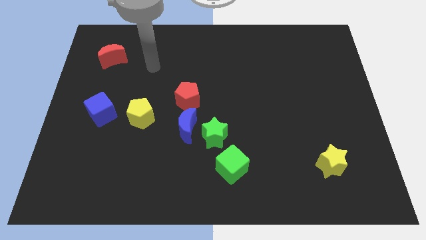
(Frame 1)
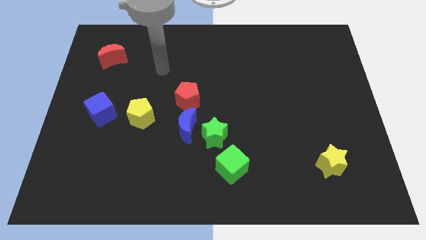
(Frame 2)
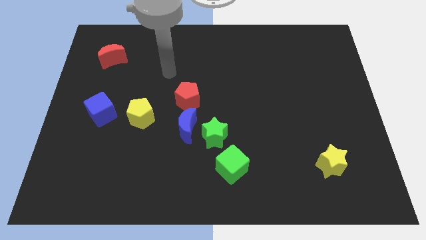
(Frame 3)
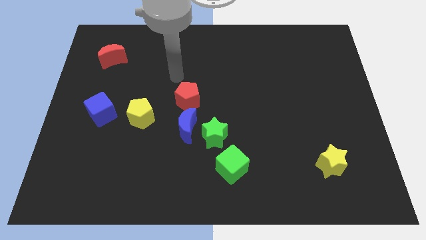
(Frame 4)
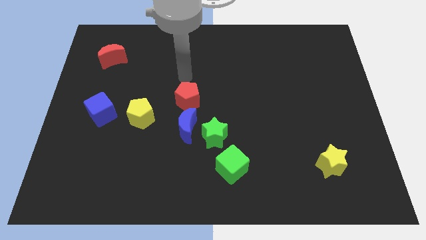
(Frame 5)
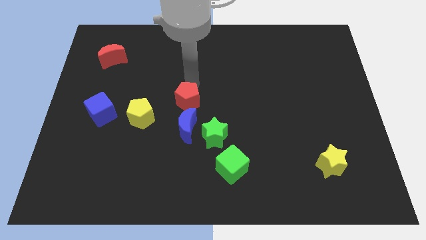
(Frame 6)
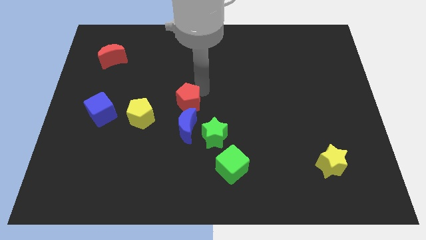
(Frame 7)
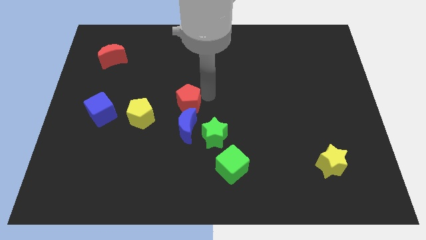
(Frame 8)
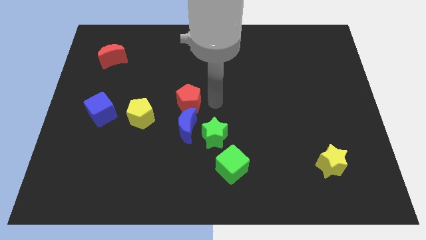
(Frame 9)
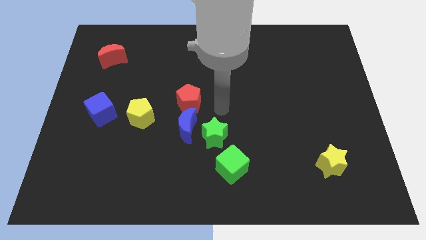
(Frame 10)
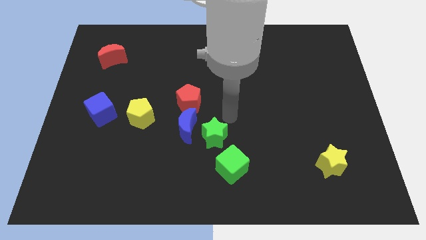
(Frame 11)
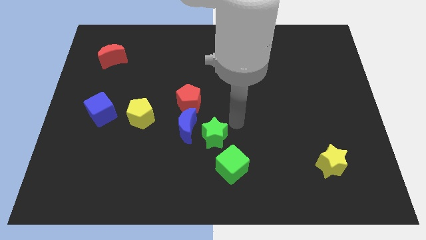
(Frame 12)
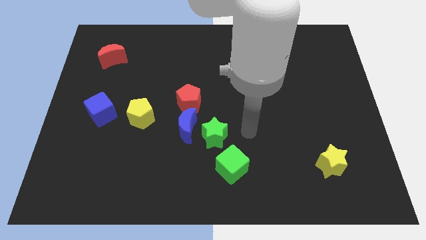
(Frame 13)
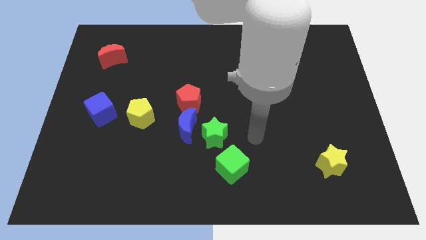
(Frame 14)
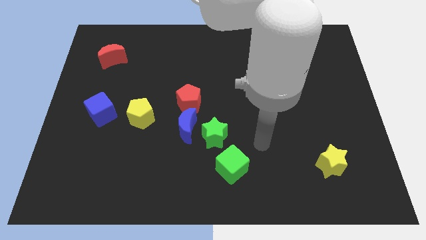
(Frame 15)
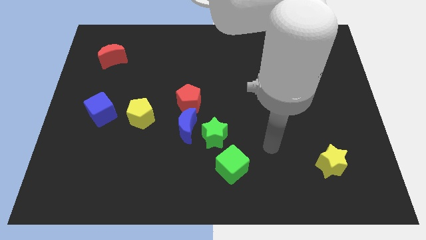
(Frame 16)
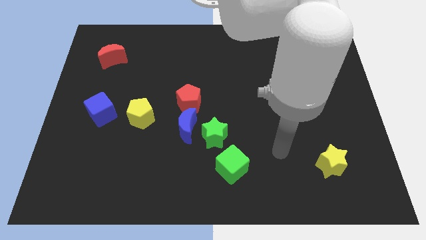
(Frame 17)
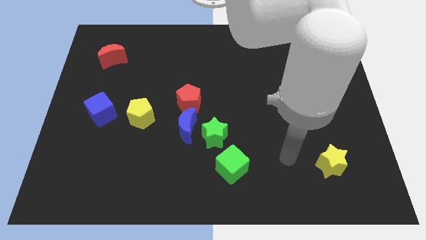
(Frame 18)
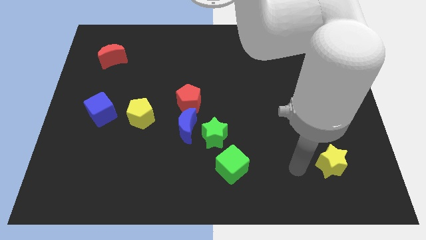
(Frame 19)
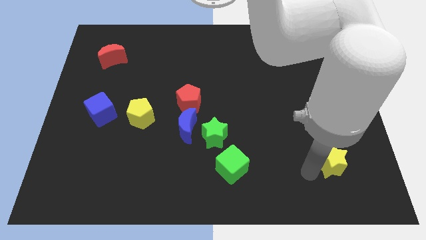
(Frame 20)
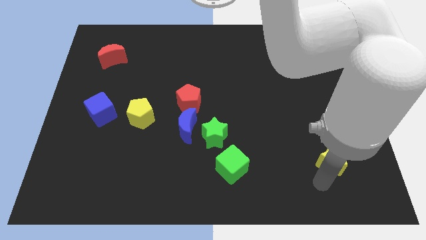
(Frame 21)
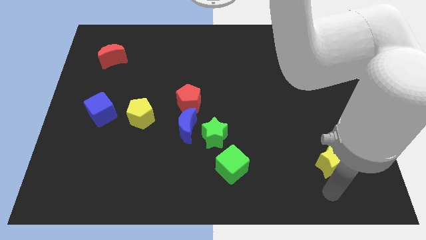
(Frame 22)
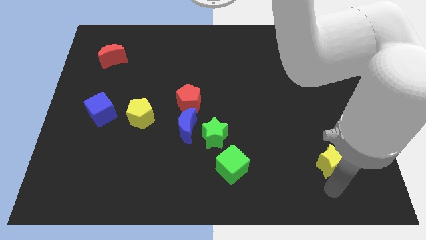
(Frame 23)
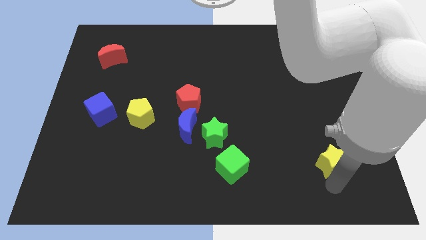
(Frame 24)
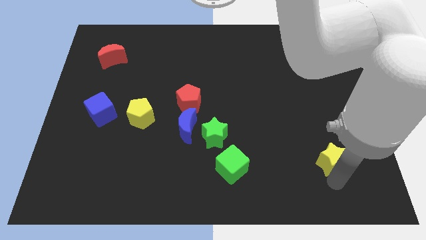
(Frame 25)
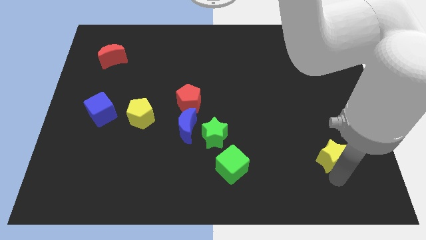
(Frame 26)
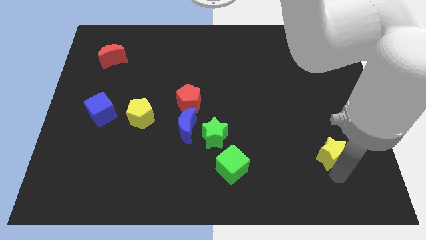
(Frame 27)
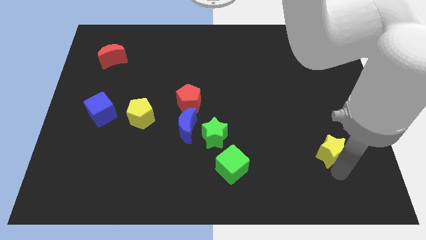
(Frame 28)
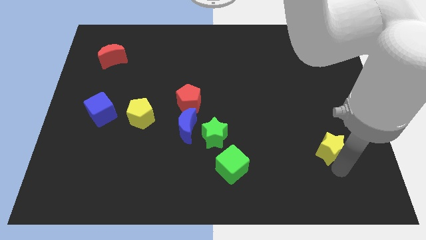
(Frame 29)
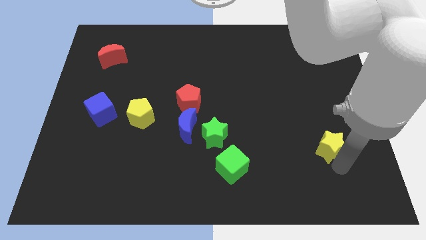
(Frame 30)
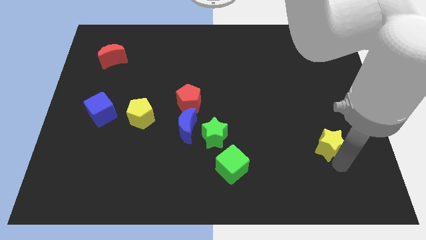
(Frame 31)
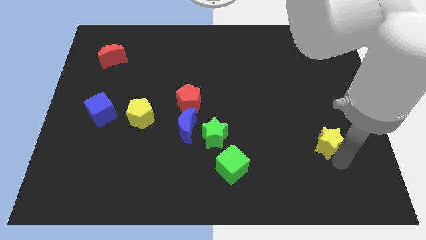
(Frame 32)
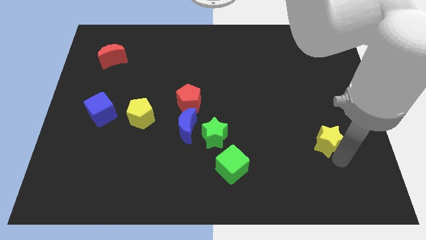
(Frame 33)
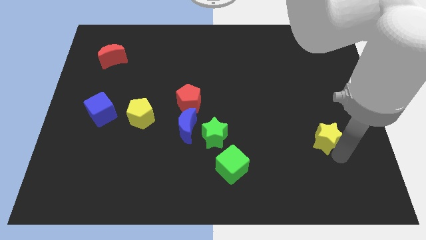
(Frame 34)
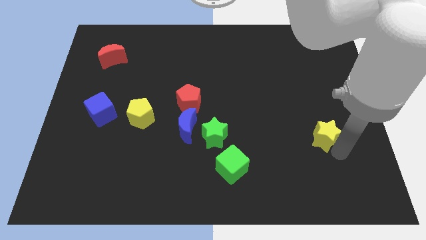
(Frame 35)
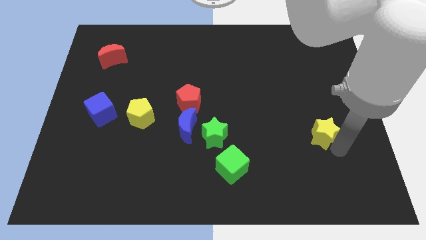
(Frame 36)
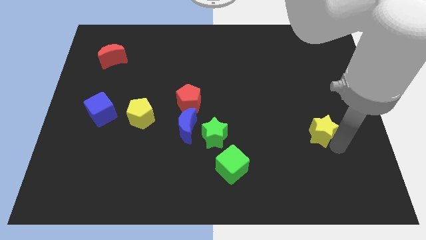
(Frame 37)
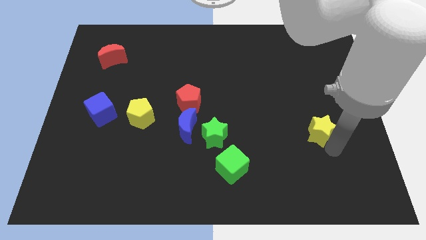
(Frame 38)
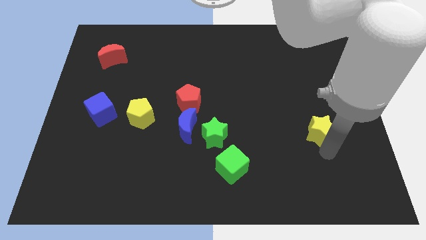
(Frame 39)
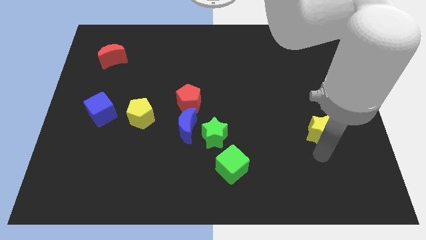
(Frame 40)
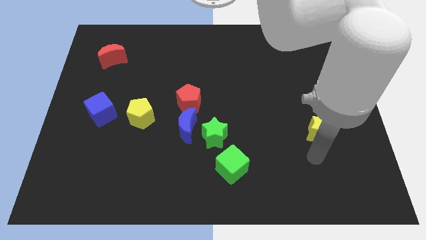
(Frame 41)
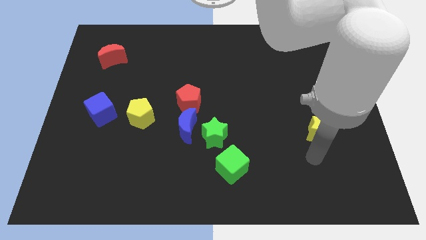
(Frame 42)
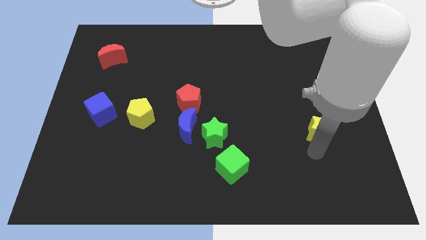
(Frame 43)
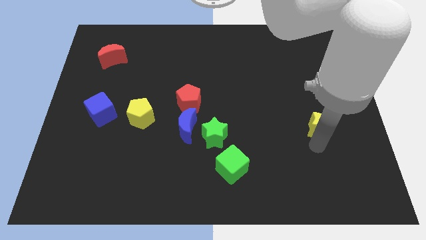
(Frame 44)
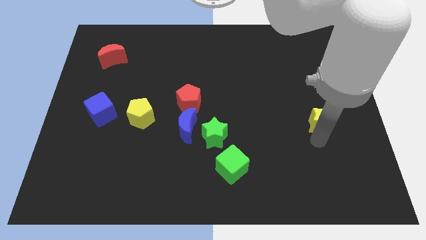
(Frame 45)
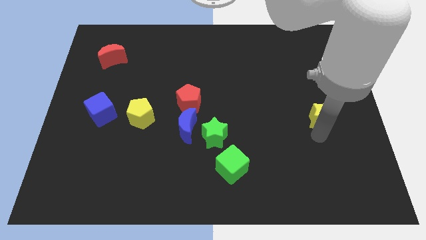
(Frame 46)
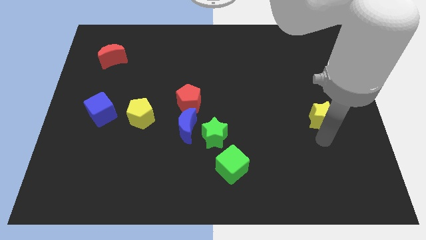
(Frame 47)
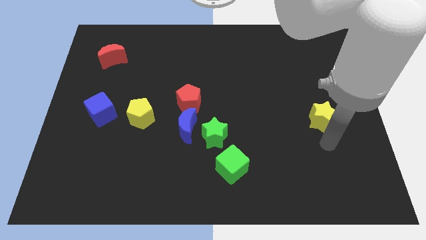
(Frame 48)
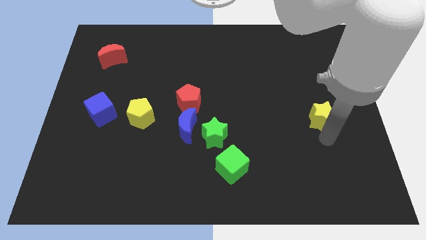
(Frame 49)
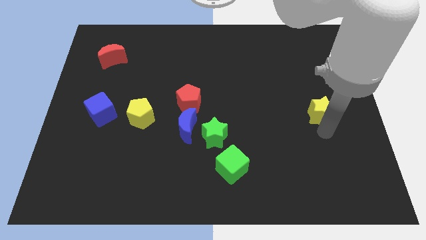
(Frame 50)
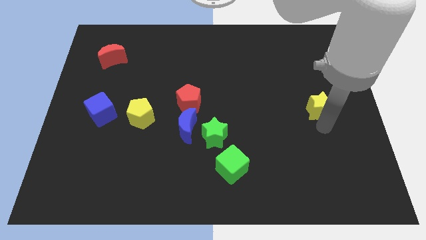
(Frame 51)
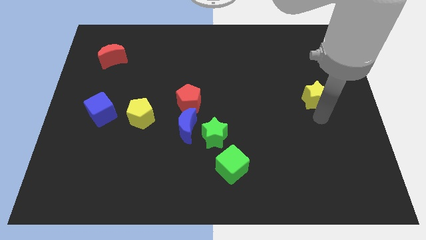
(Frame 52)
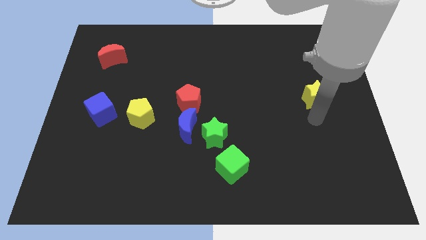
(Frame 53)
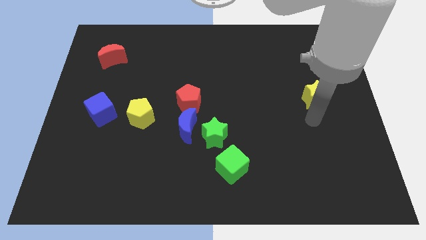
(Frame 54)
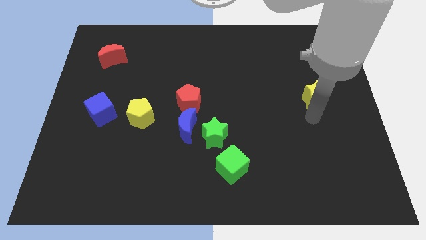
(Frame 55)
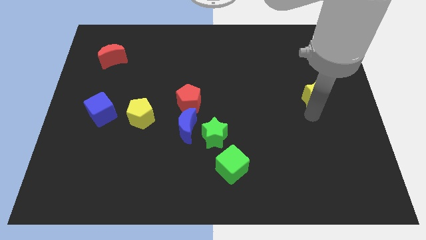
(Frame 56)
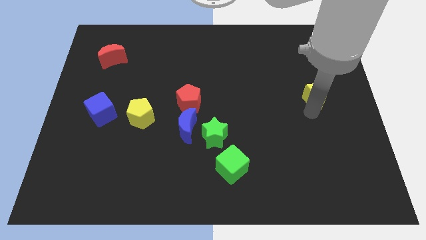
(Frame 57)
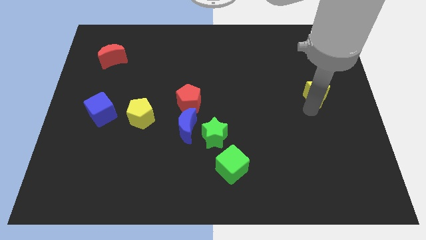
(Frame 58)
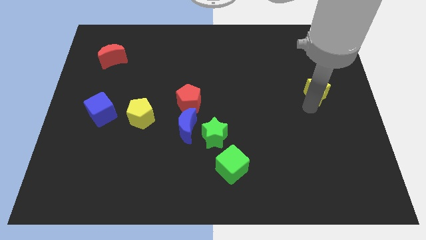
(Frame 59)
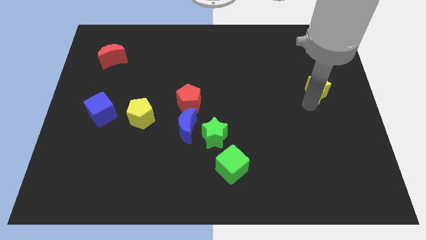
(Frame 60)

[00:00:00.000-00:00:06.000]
slide the yellow star up

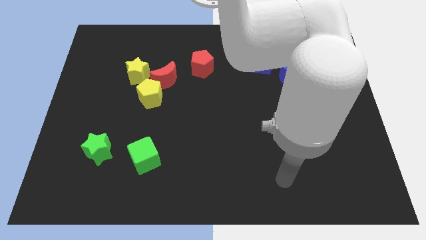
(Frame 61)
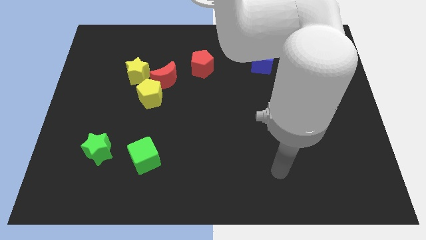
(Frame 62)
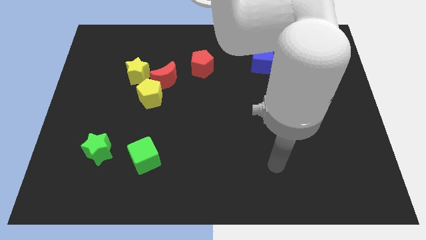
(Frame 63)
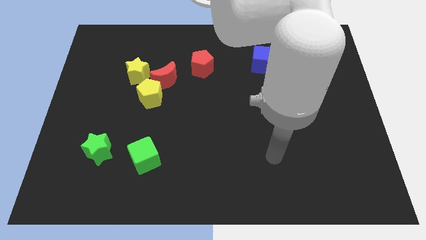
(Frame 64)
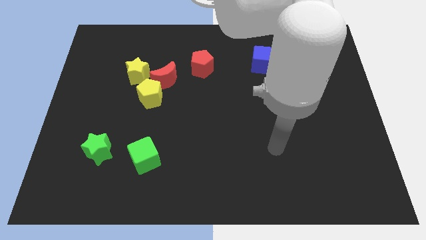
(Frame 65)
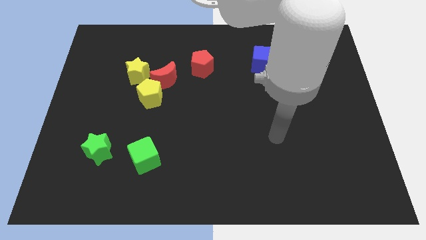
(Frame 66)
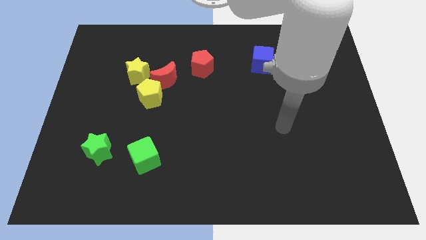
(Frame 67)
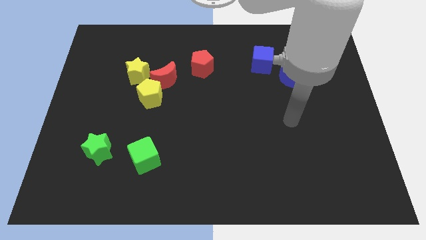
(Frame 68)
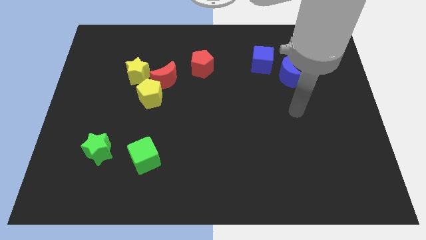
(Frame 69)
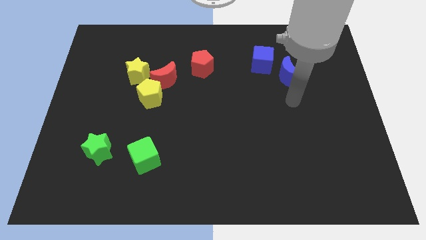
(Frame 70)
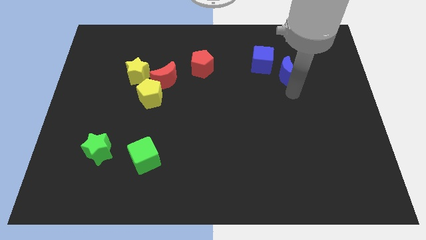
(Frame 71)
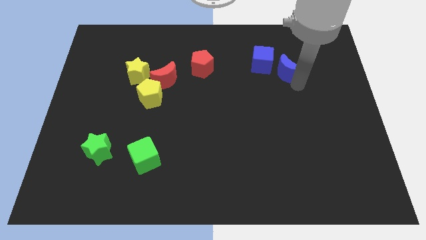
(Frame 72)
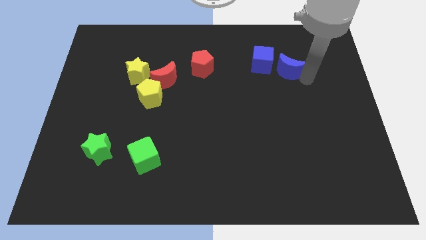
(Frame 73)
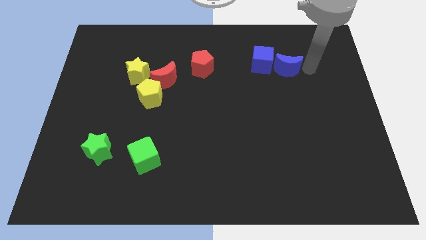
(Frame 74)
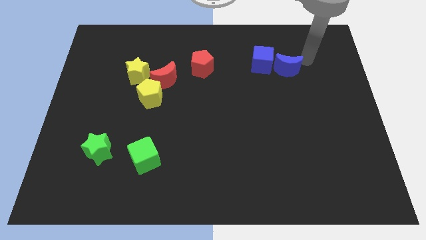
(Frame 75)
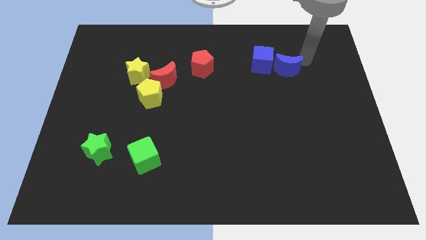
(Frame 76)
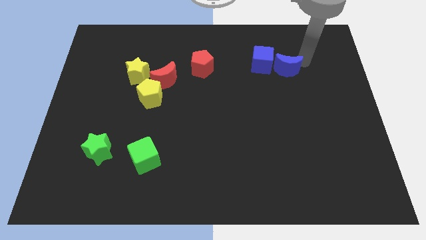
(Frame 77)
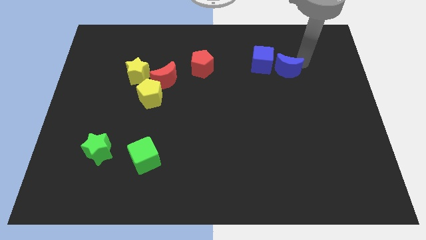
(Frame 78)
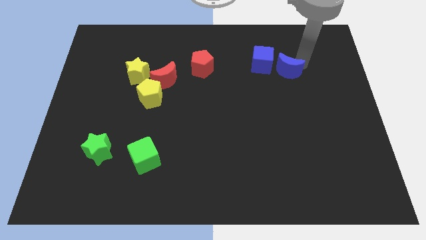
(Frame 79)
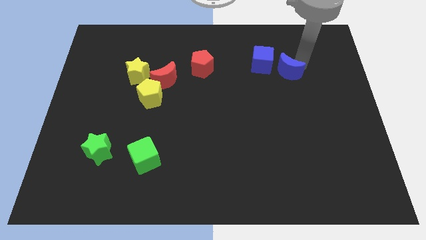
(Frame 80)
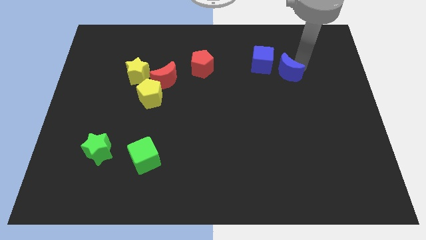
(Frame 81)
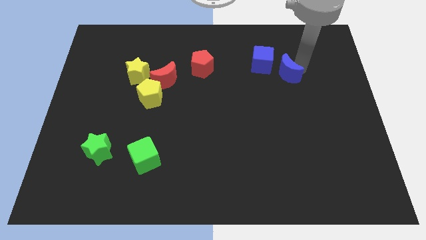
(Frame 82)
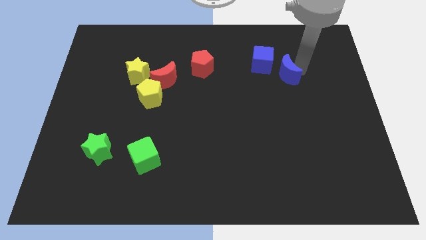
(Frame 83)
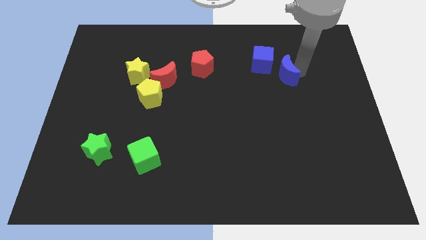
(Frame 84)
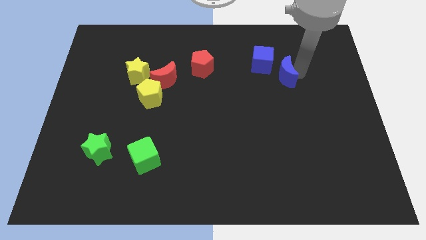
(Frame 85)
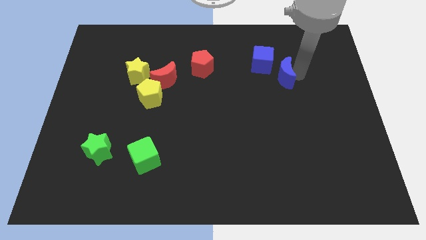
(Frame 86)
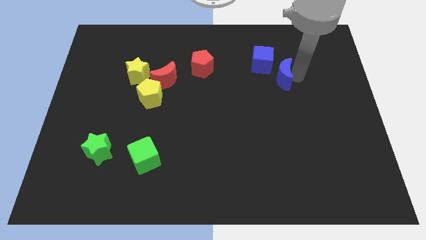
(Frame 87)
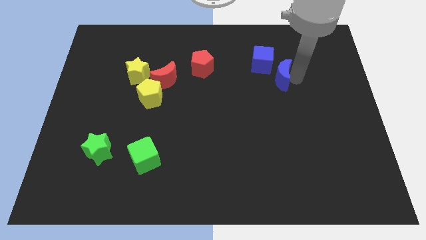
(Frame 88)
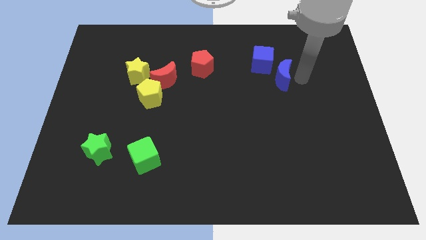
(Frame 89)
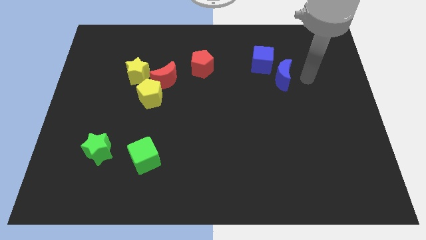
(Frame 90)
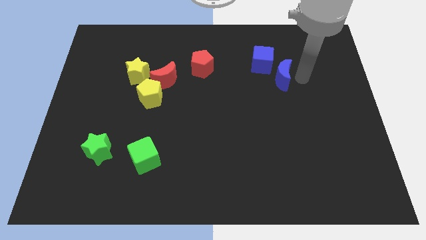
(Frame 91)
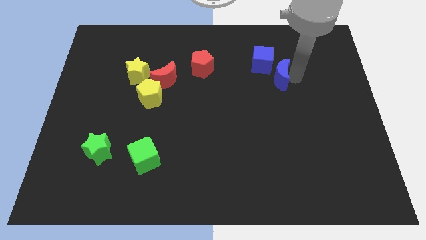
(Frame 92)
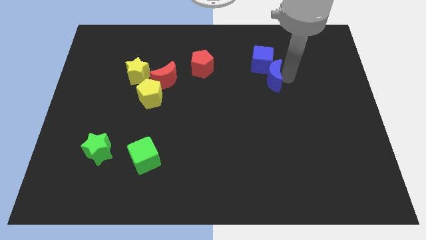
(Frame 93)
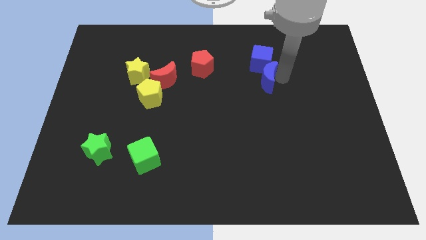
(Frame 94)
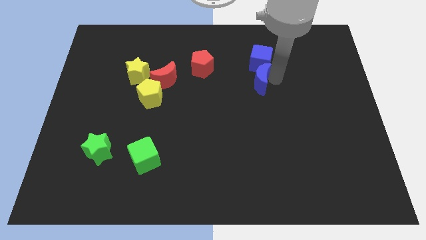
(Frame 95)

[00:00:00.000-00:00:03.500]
slightly slide the blue moon left
